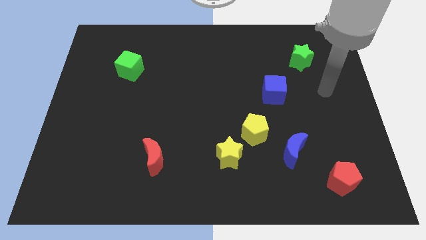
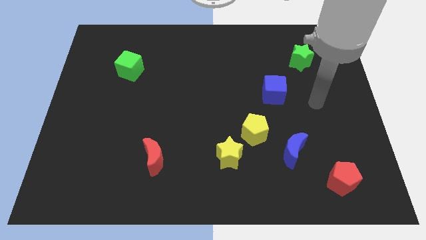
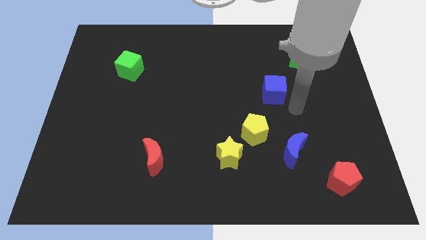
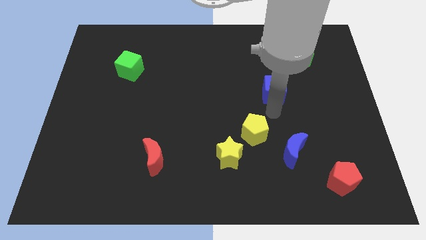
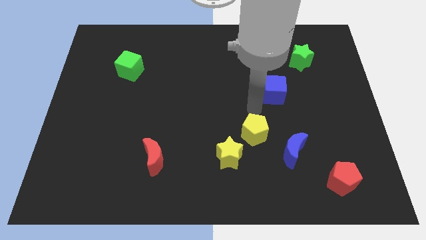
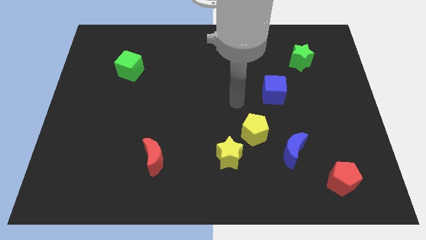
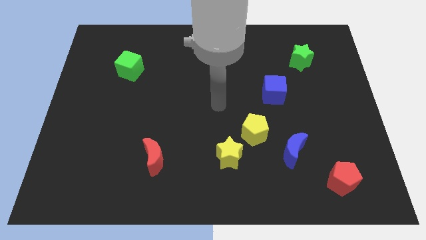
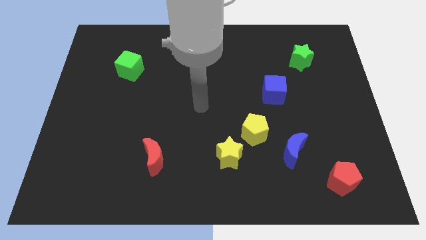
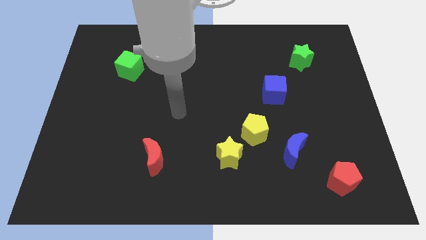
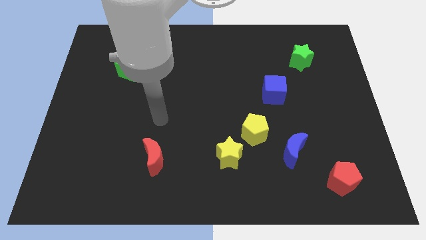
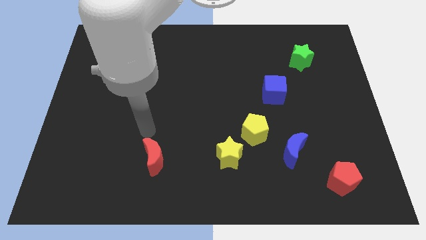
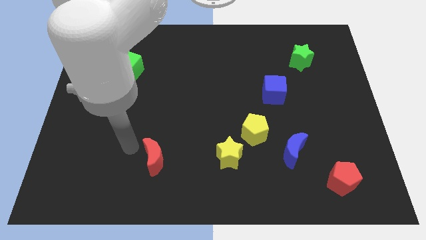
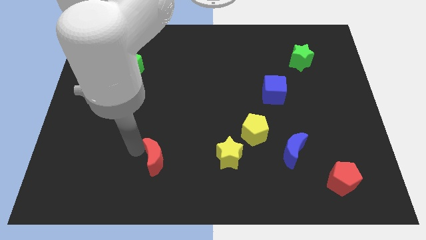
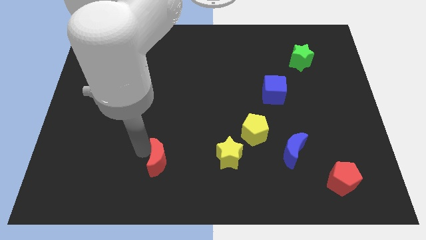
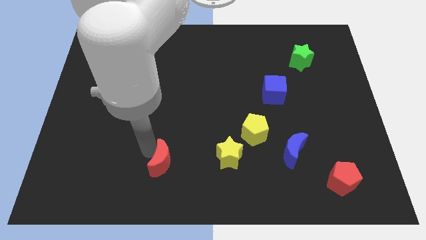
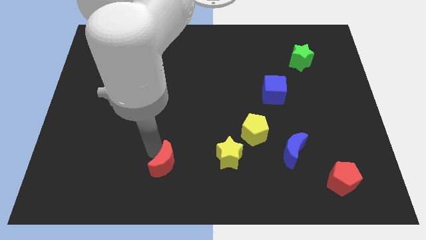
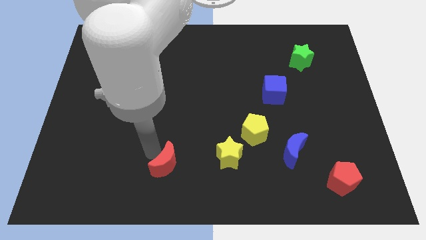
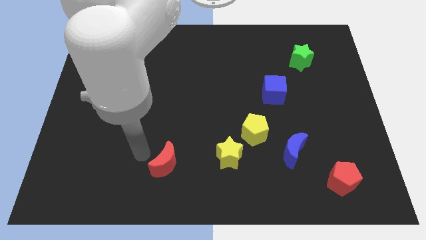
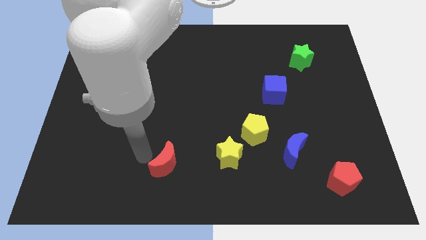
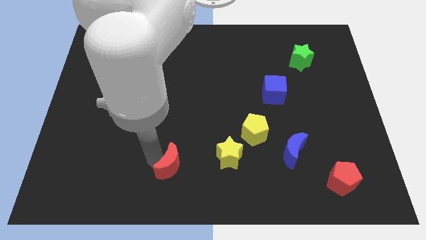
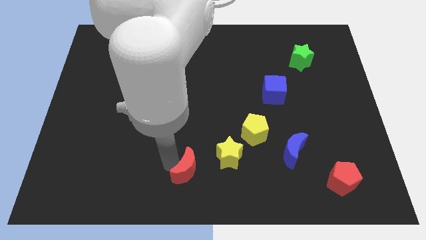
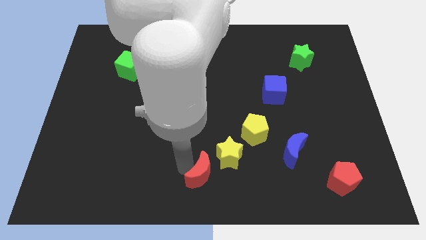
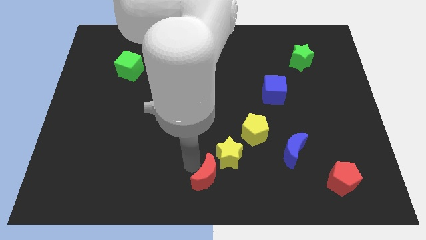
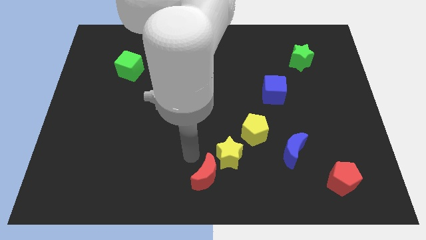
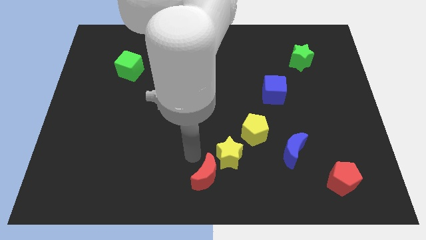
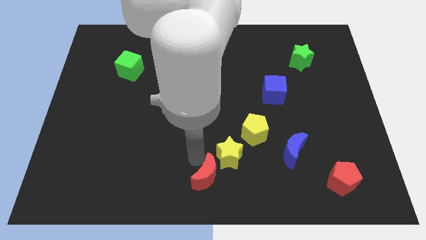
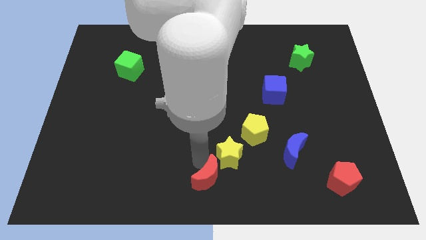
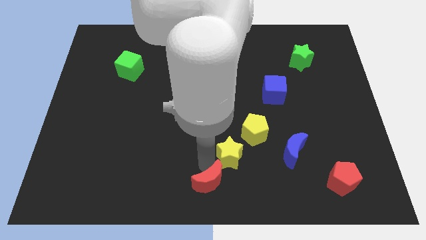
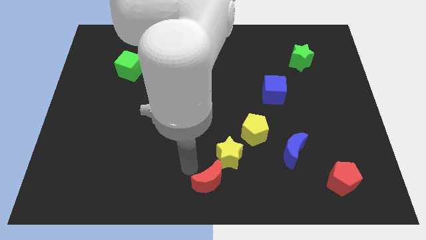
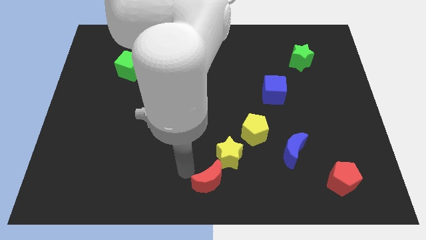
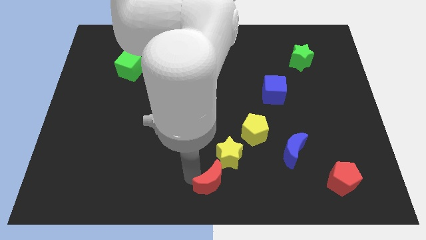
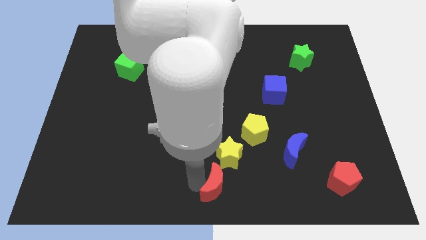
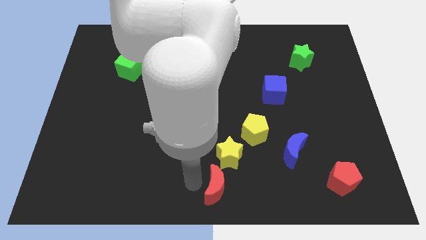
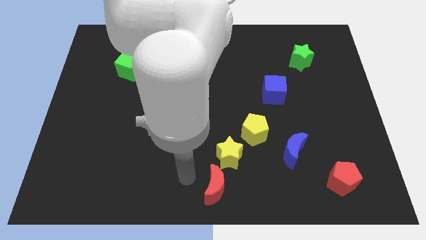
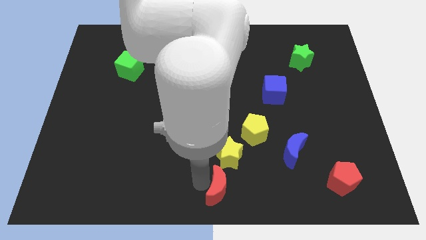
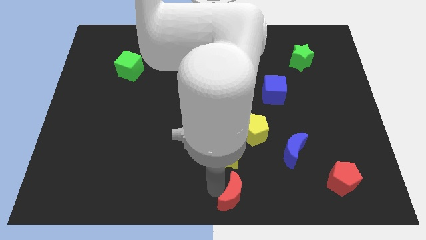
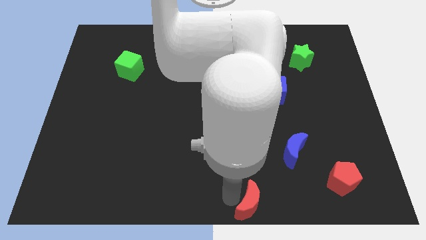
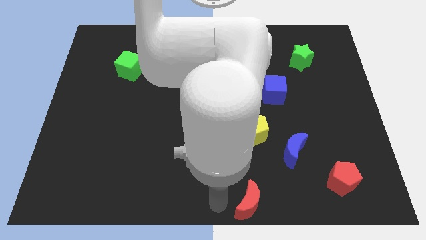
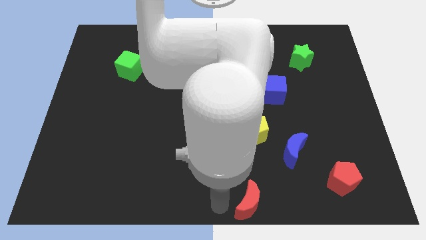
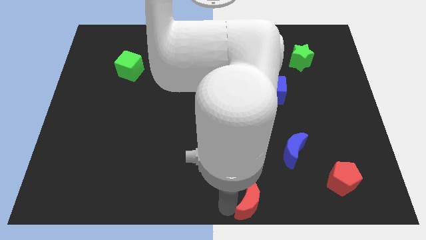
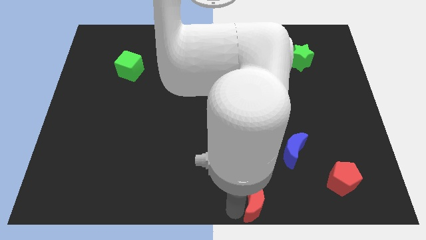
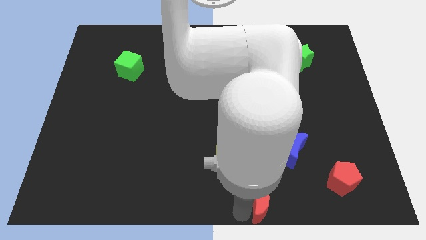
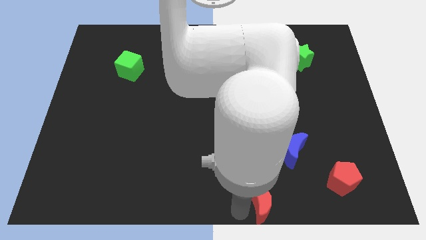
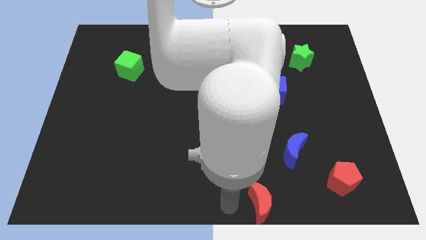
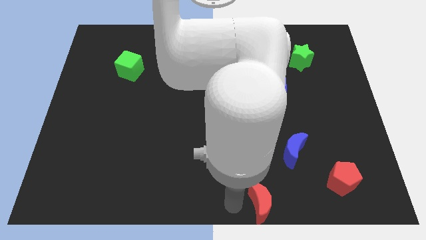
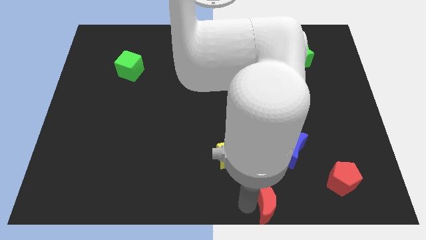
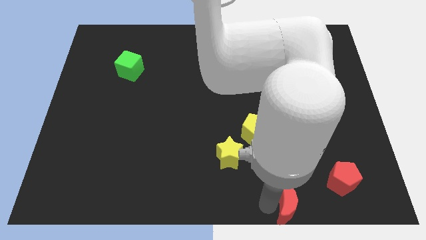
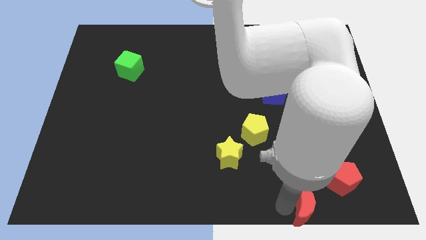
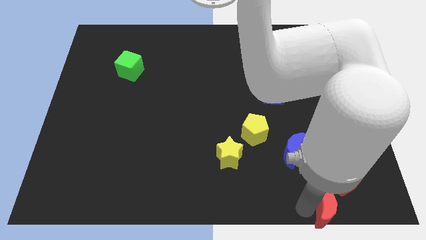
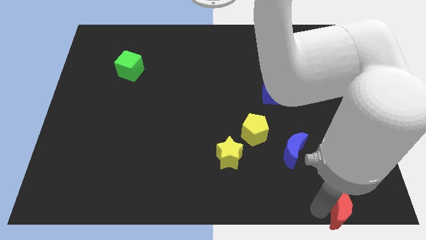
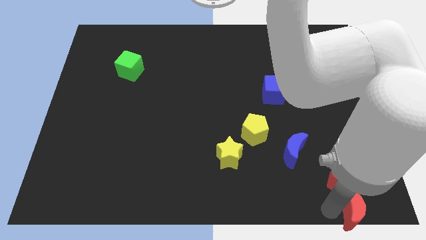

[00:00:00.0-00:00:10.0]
put the red moon to the bottom right of the board

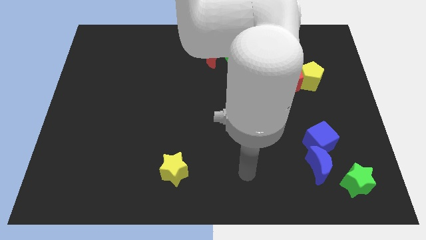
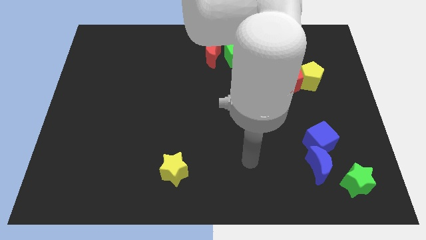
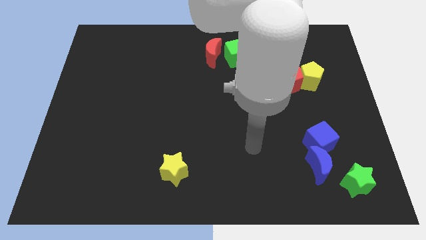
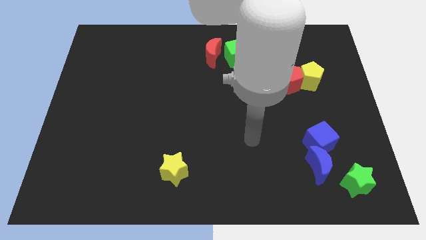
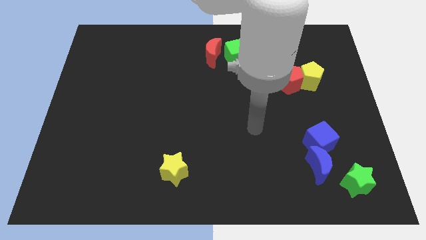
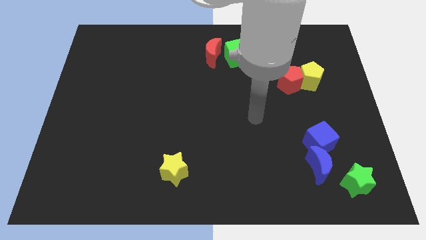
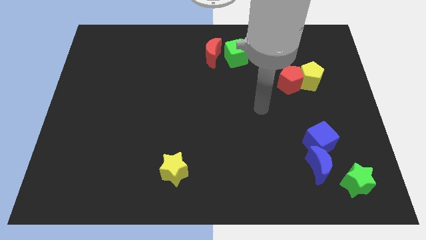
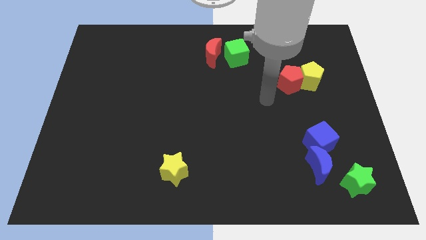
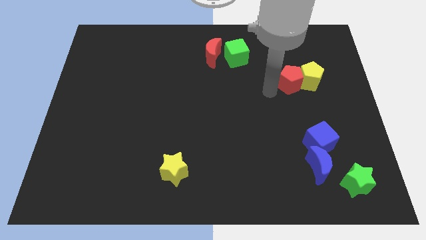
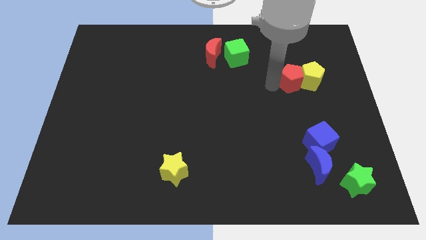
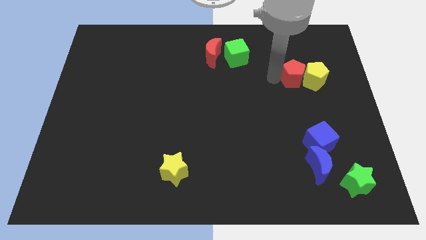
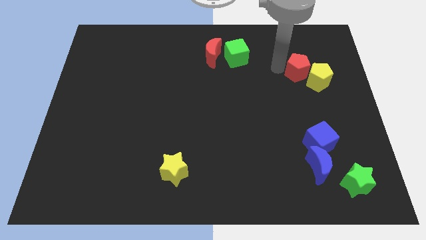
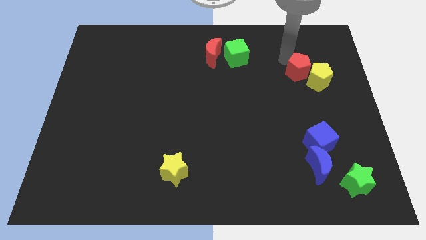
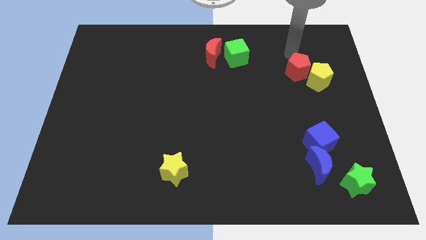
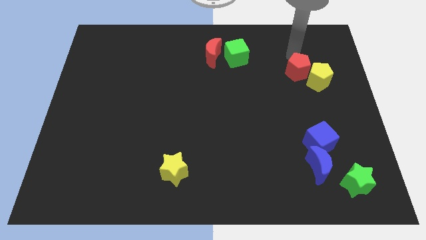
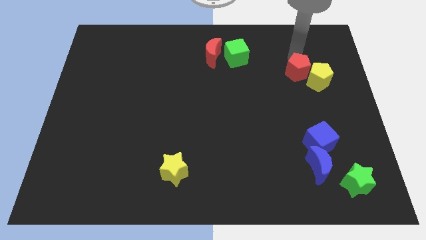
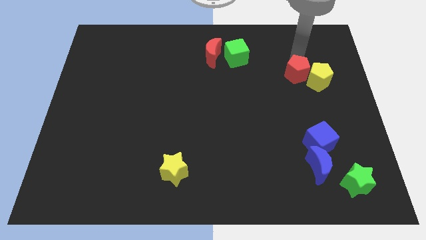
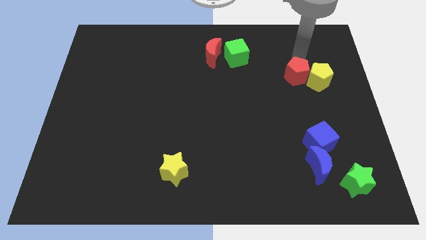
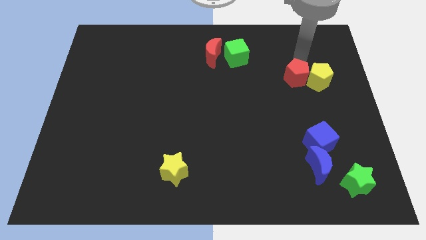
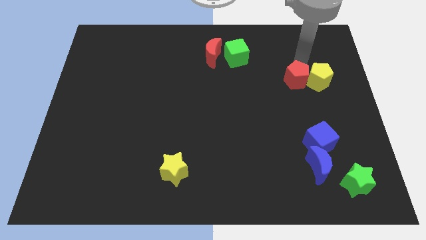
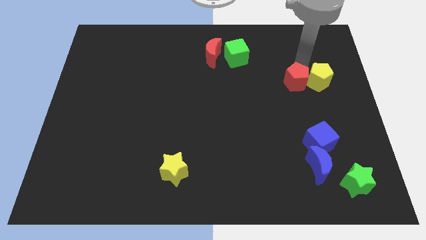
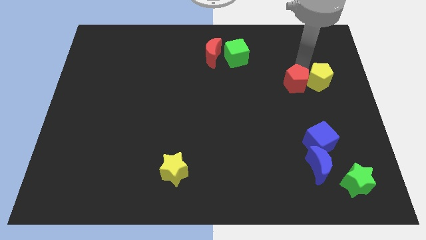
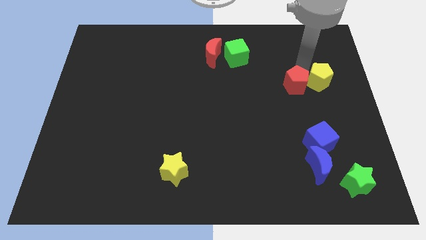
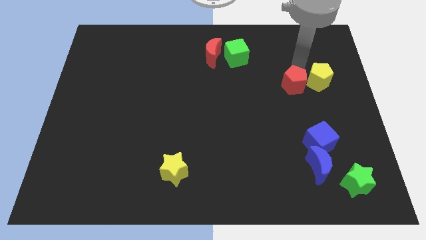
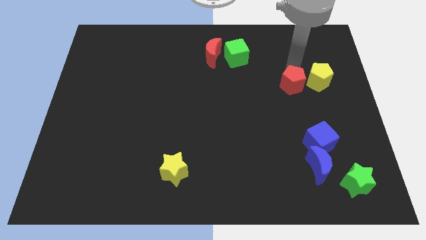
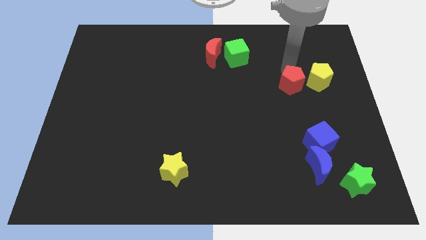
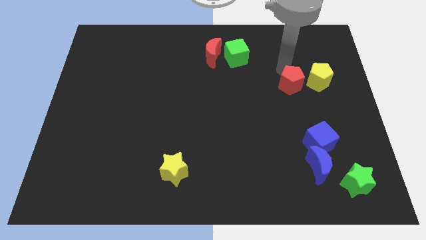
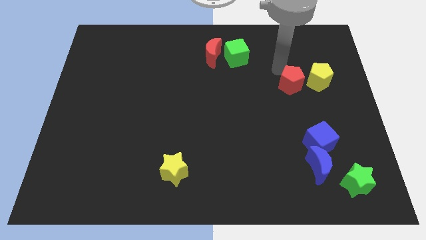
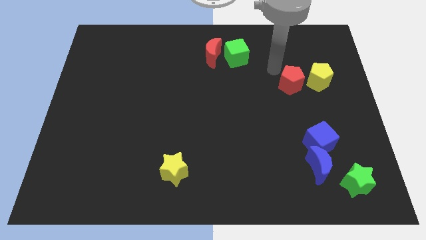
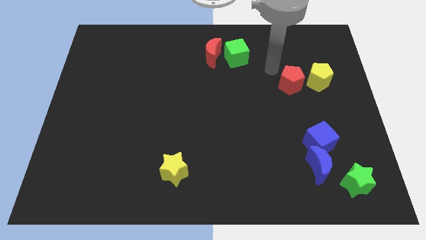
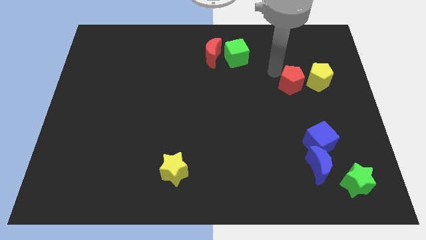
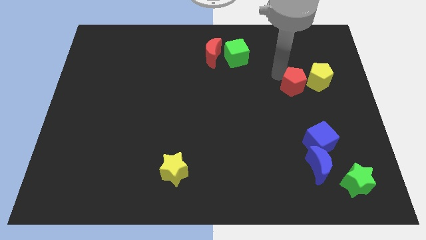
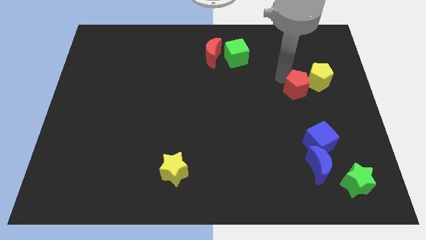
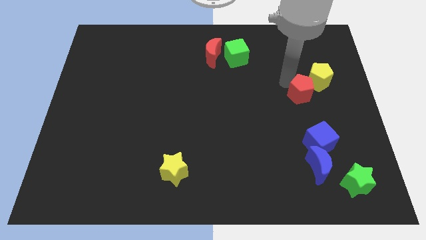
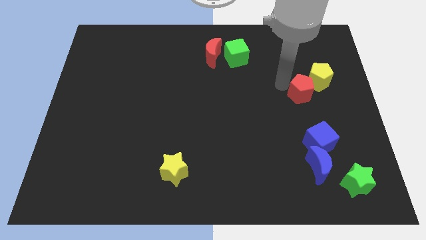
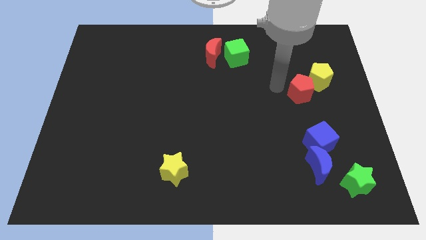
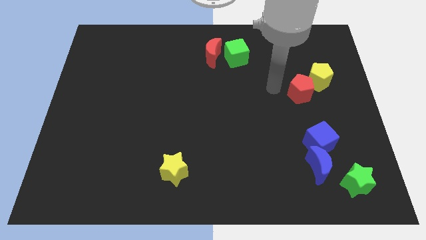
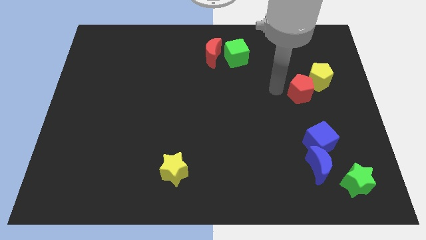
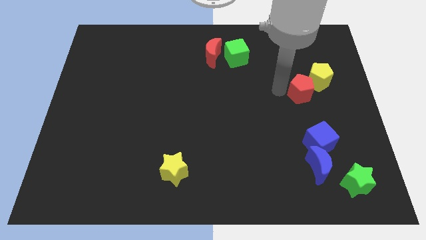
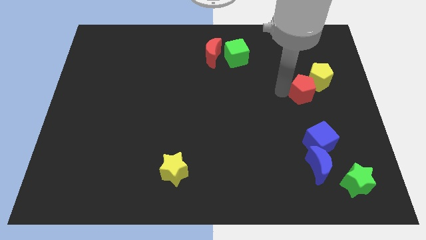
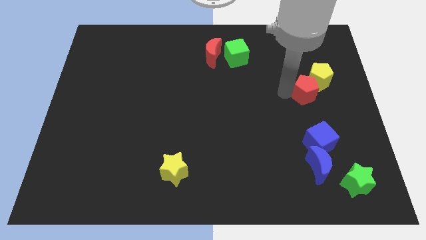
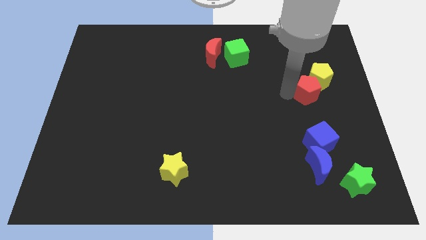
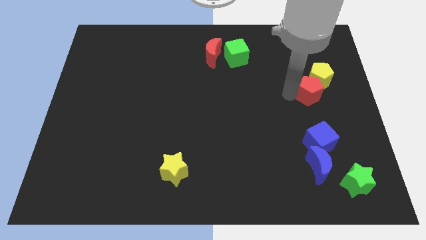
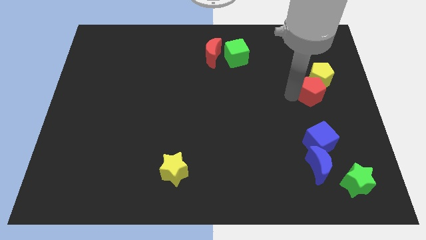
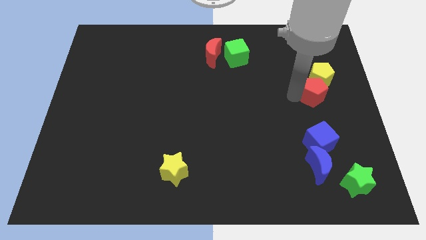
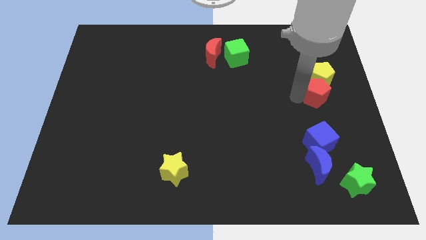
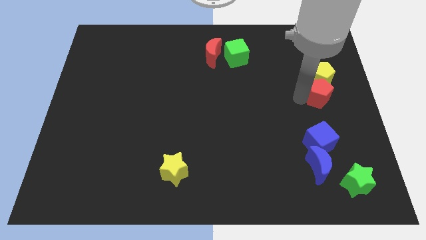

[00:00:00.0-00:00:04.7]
push the red pentagon to the center right
